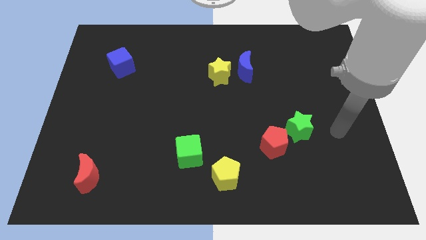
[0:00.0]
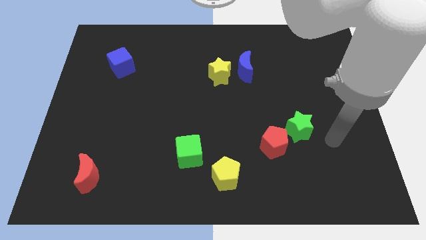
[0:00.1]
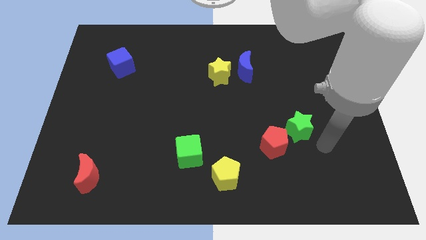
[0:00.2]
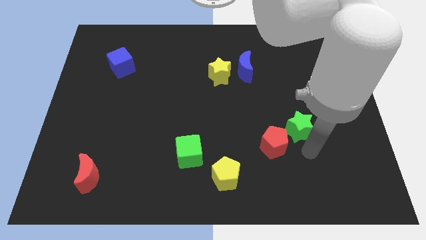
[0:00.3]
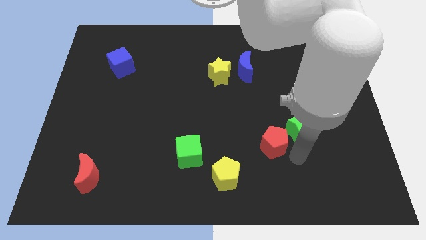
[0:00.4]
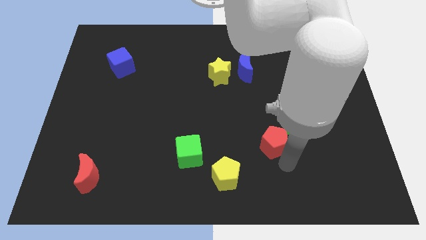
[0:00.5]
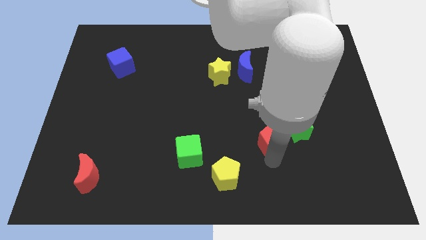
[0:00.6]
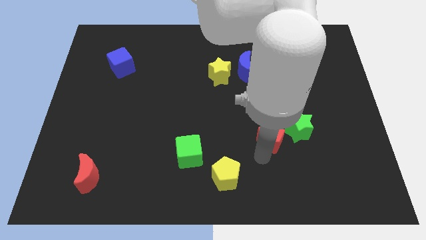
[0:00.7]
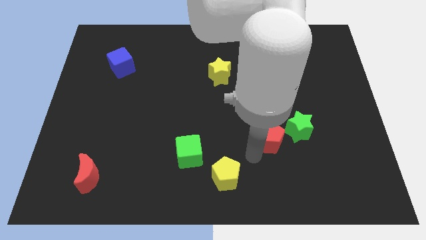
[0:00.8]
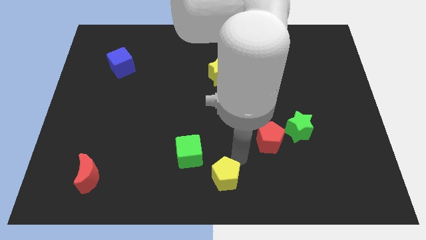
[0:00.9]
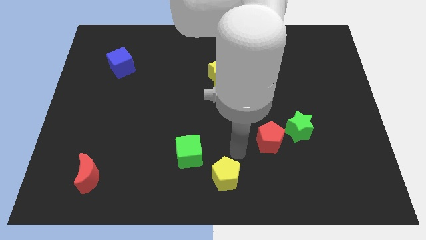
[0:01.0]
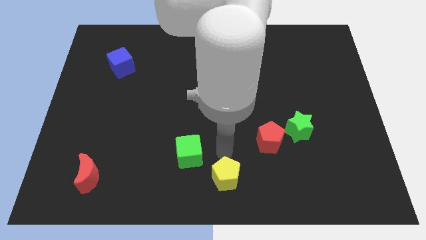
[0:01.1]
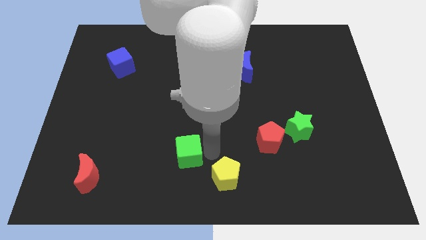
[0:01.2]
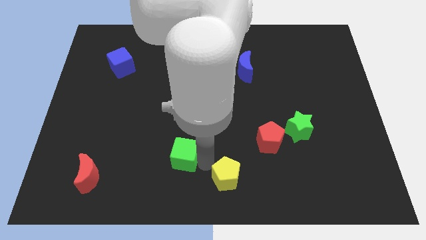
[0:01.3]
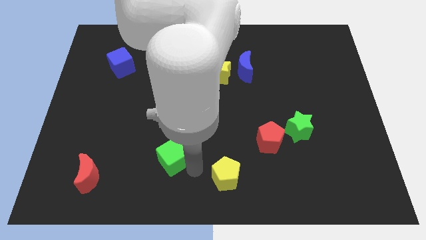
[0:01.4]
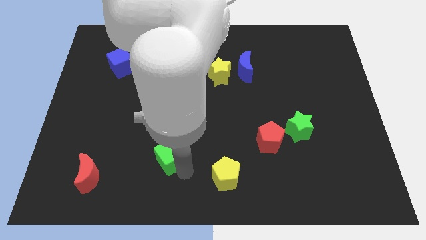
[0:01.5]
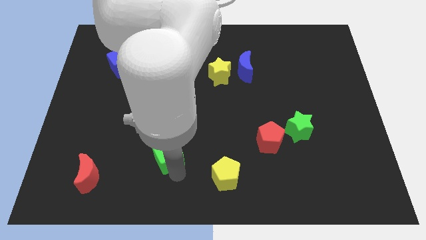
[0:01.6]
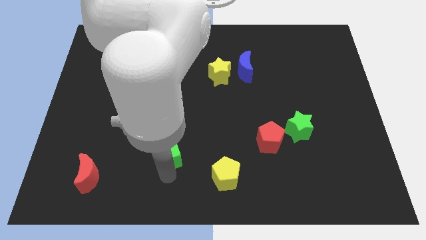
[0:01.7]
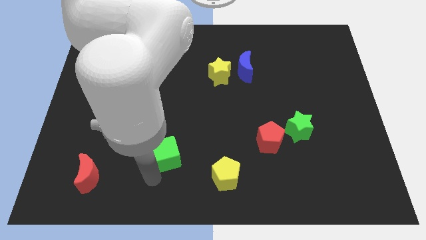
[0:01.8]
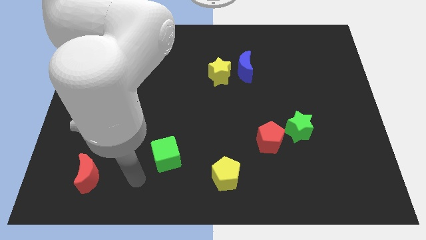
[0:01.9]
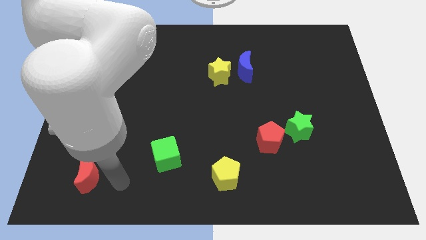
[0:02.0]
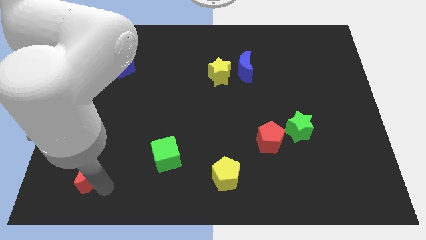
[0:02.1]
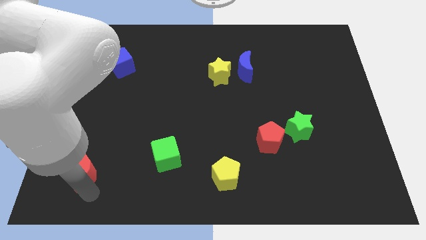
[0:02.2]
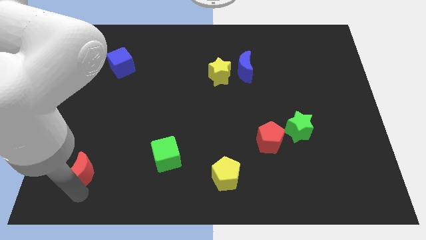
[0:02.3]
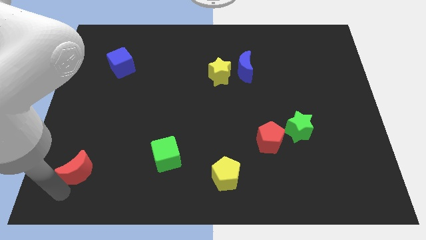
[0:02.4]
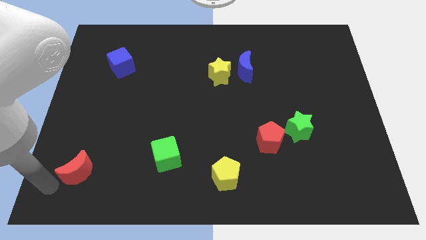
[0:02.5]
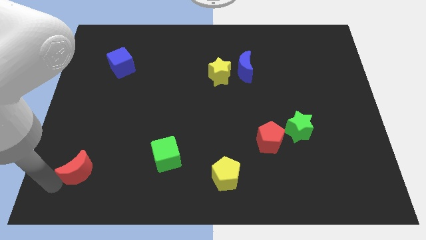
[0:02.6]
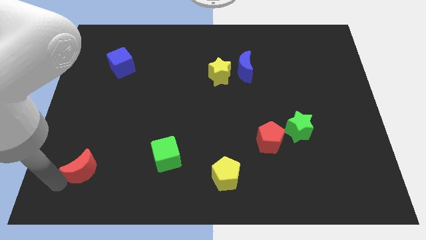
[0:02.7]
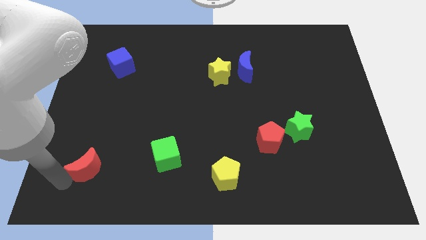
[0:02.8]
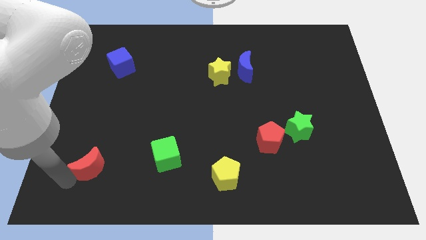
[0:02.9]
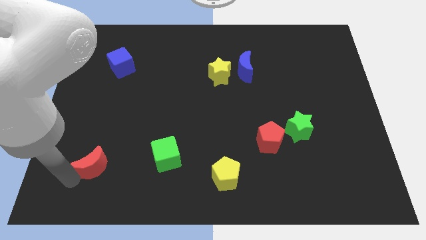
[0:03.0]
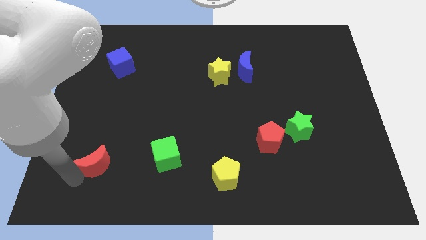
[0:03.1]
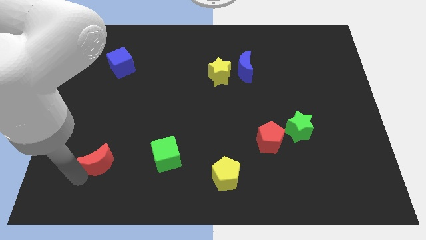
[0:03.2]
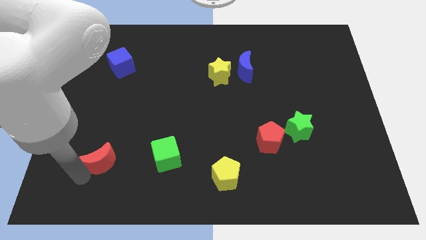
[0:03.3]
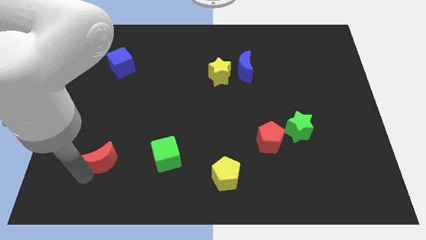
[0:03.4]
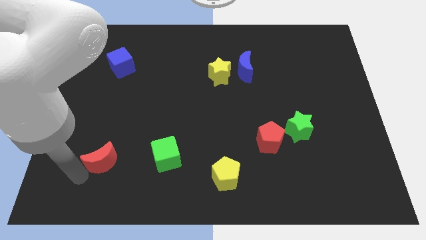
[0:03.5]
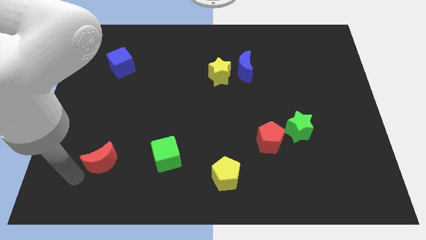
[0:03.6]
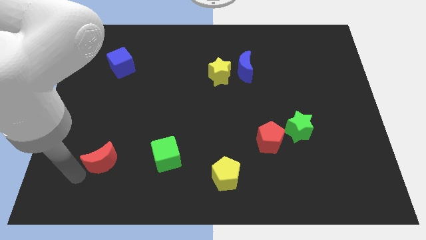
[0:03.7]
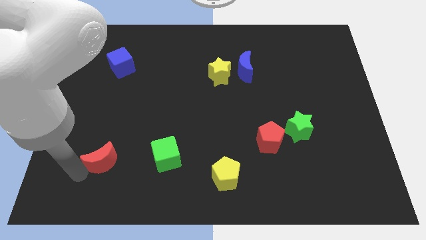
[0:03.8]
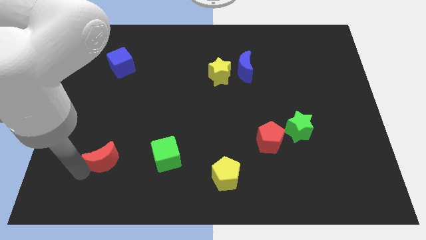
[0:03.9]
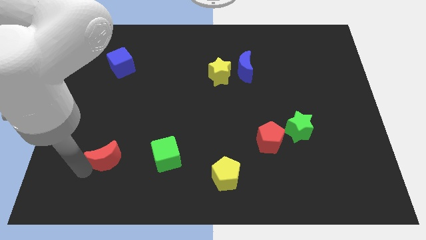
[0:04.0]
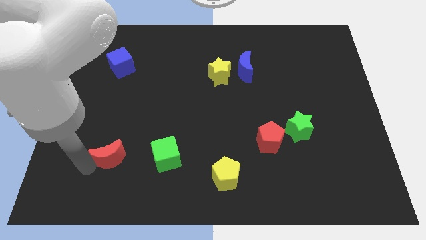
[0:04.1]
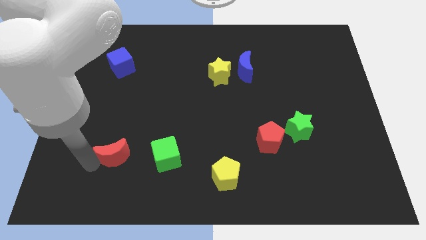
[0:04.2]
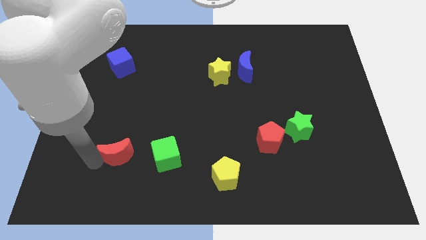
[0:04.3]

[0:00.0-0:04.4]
slide the red moon up and right a little bit

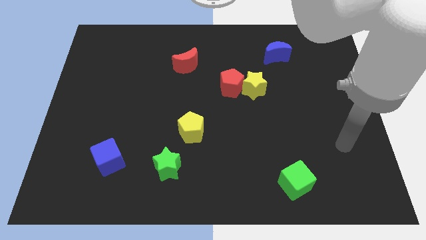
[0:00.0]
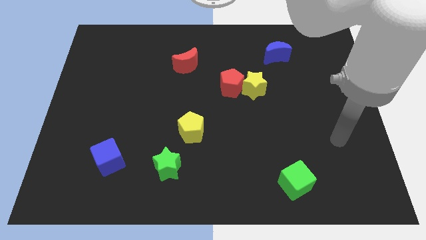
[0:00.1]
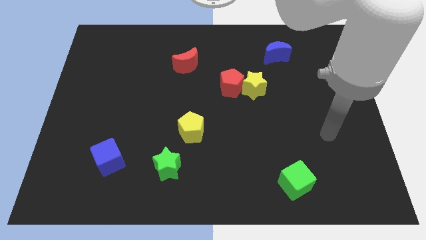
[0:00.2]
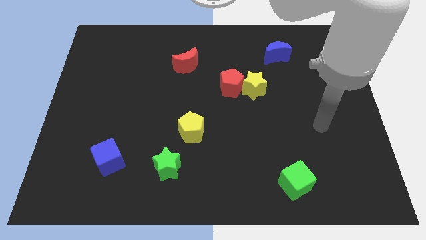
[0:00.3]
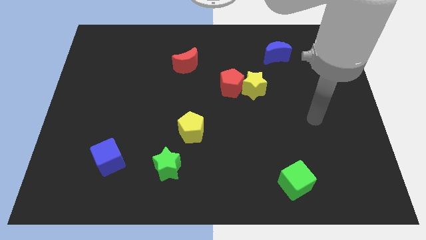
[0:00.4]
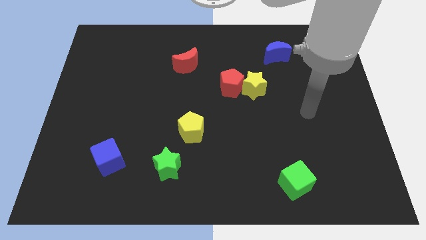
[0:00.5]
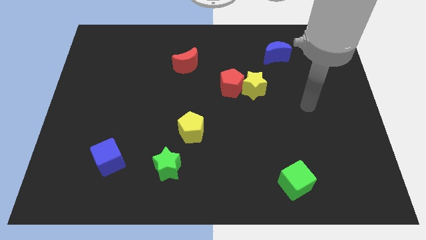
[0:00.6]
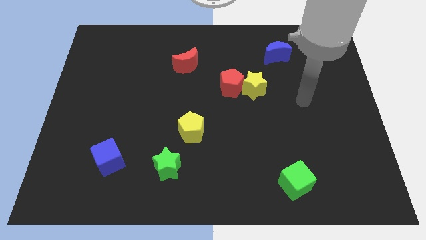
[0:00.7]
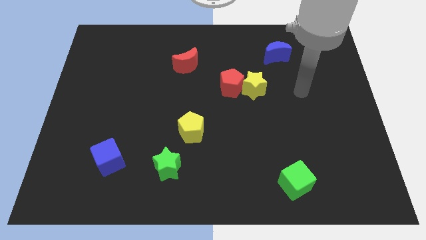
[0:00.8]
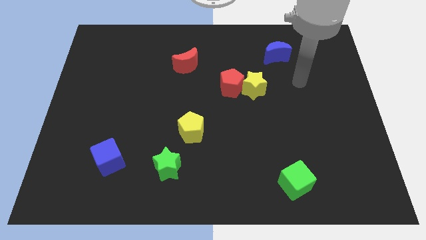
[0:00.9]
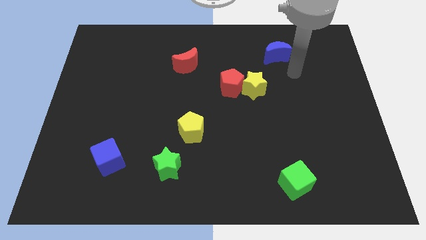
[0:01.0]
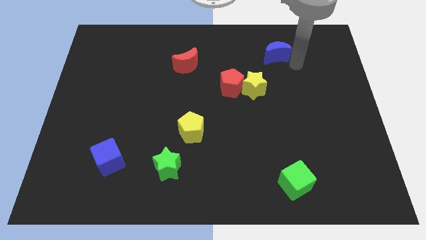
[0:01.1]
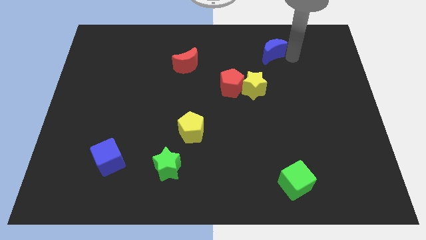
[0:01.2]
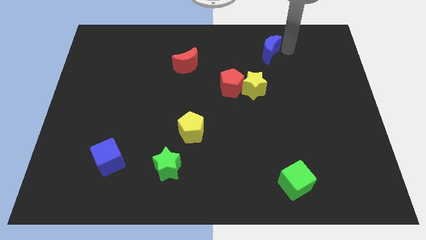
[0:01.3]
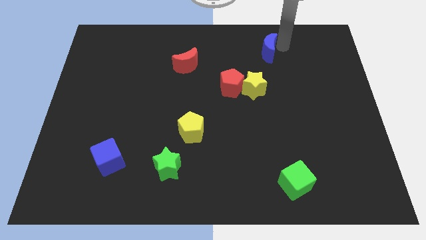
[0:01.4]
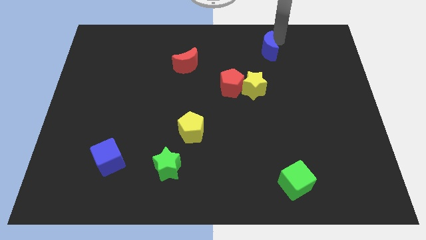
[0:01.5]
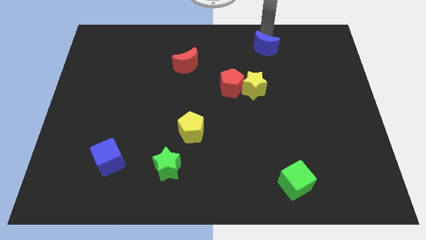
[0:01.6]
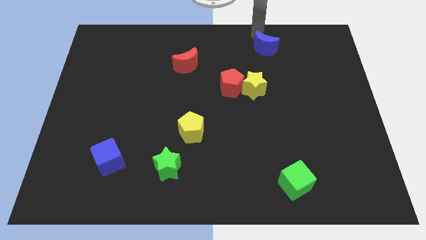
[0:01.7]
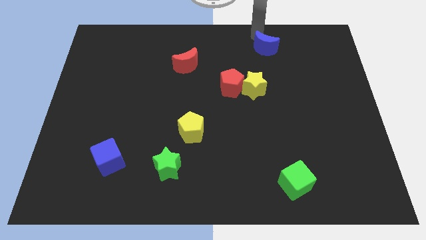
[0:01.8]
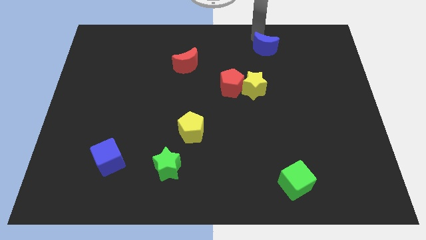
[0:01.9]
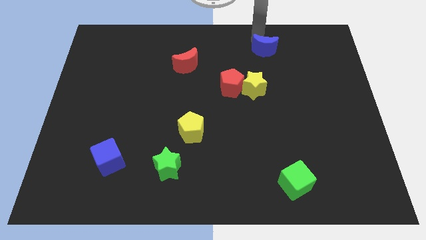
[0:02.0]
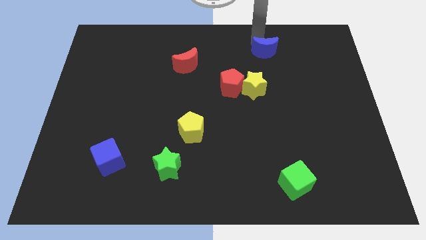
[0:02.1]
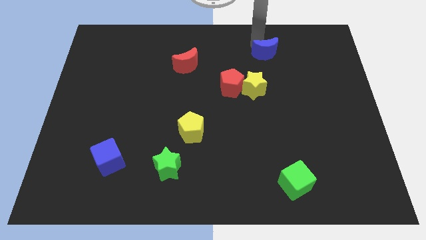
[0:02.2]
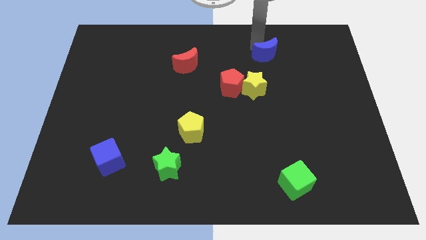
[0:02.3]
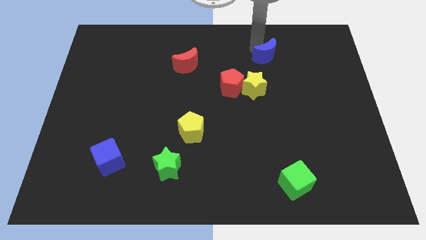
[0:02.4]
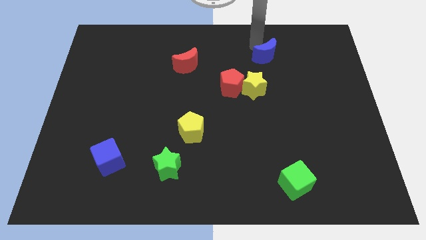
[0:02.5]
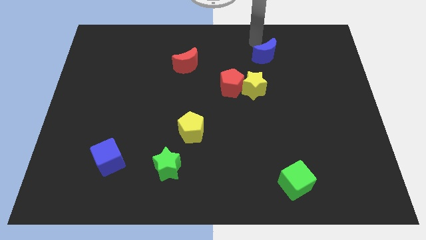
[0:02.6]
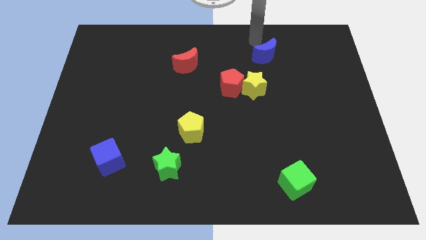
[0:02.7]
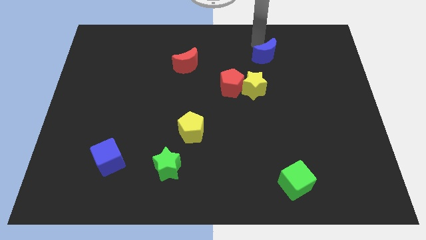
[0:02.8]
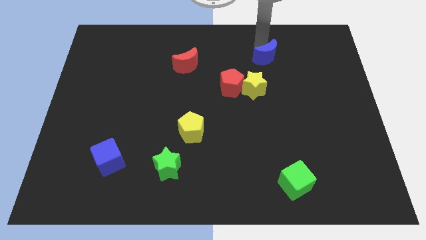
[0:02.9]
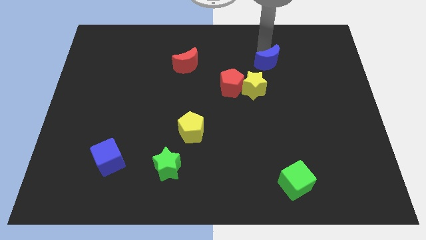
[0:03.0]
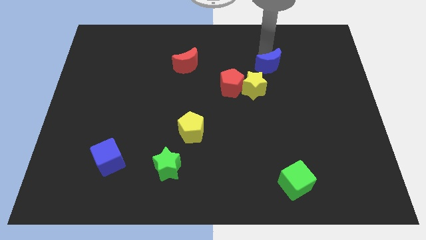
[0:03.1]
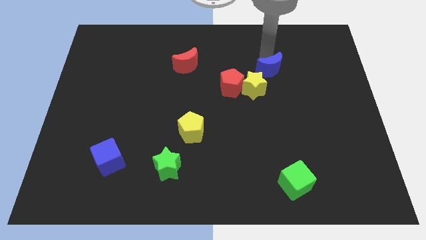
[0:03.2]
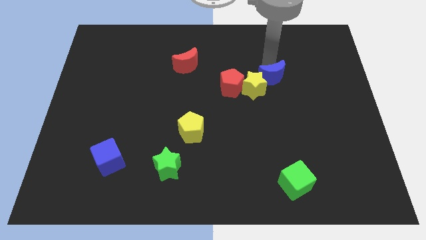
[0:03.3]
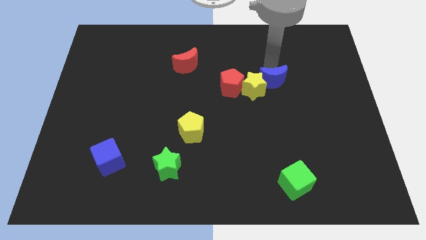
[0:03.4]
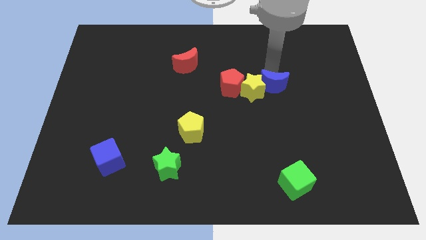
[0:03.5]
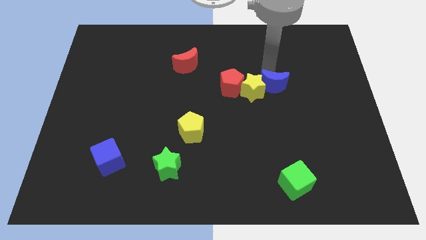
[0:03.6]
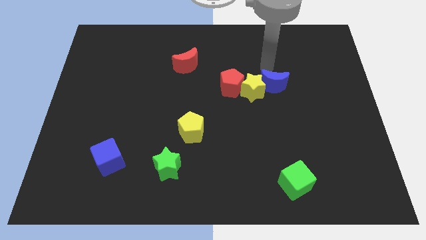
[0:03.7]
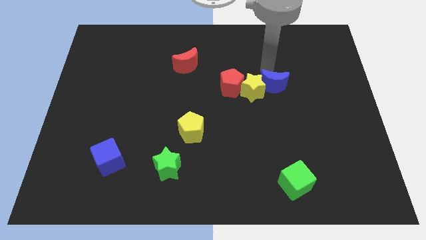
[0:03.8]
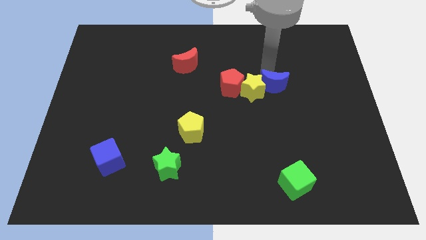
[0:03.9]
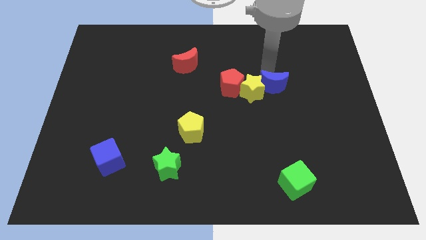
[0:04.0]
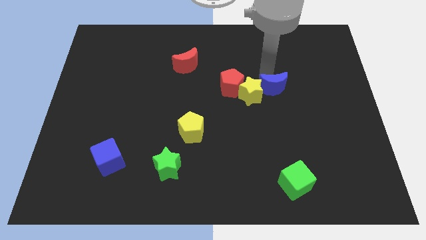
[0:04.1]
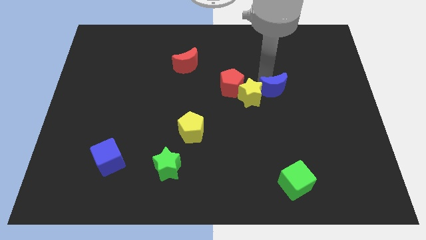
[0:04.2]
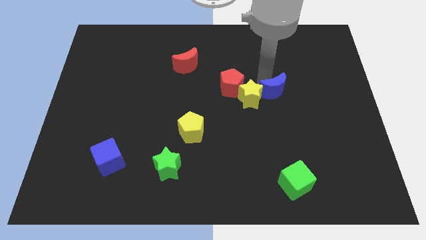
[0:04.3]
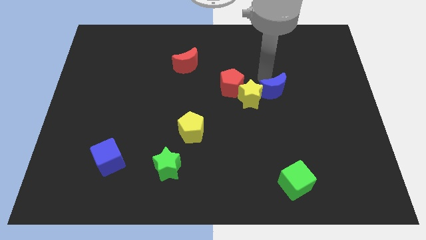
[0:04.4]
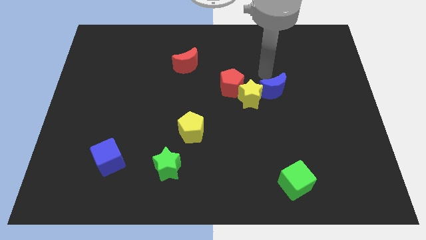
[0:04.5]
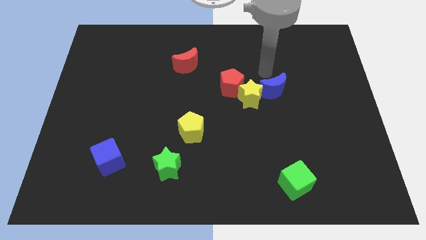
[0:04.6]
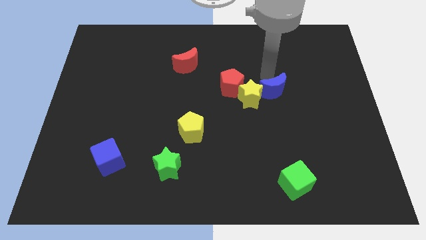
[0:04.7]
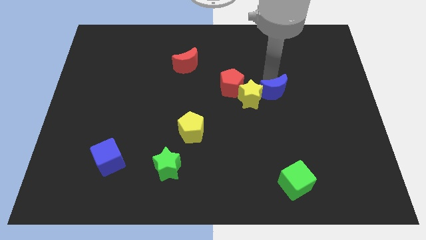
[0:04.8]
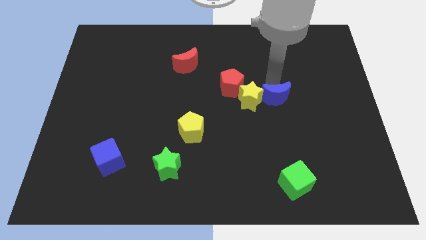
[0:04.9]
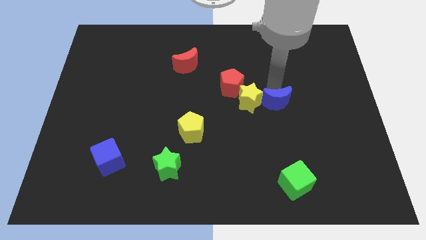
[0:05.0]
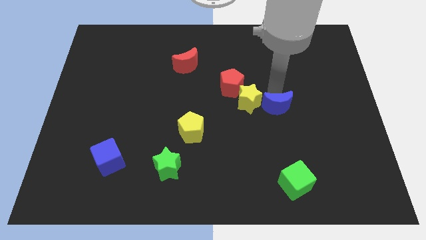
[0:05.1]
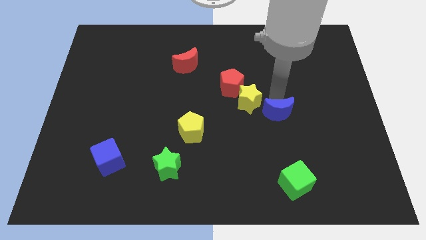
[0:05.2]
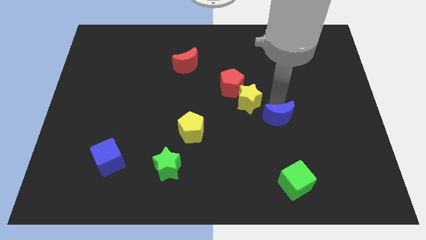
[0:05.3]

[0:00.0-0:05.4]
move the blue moon downwards
